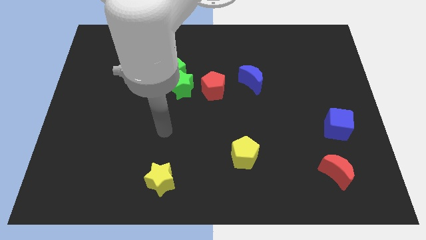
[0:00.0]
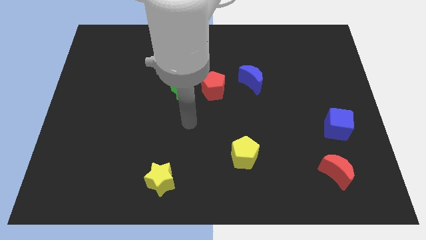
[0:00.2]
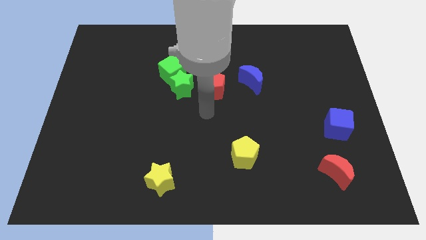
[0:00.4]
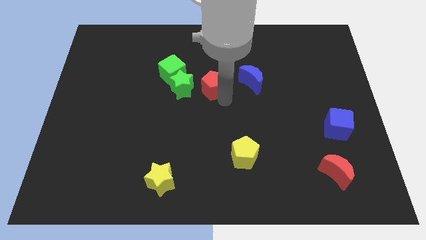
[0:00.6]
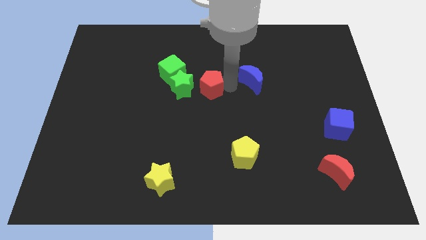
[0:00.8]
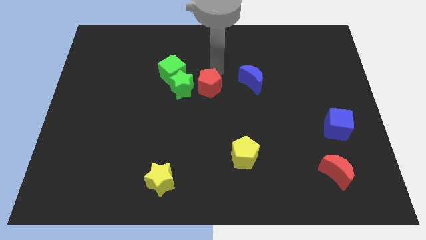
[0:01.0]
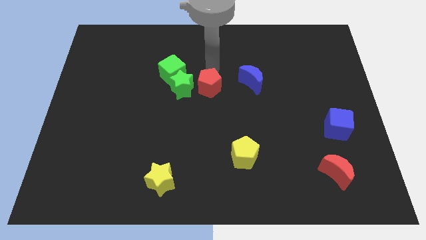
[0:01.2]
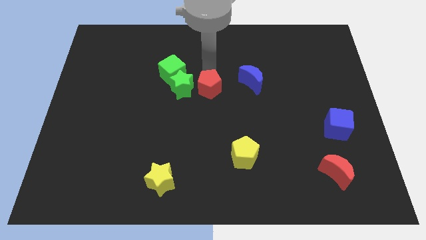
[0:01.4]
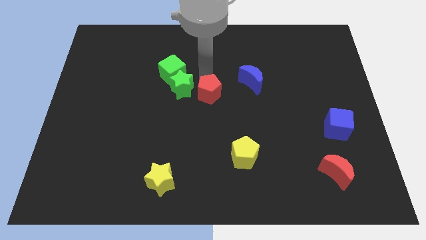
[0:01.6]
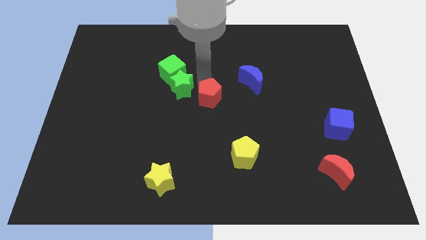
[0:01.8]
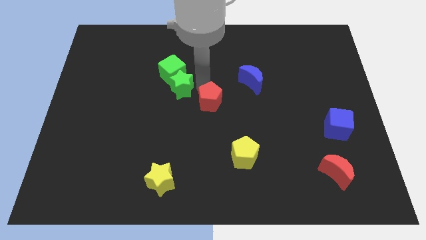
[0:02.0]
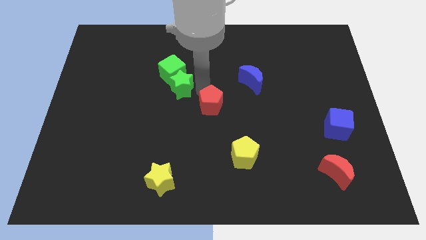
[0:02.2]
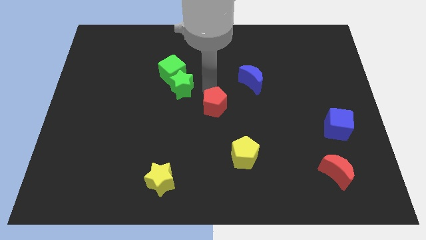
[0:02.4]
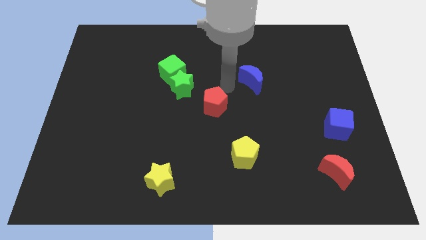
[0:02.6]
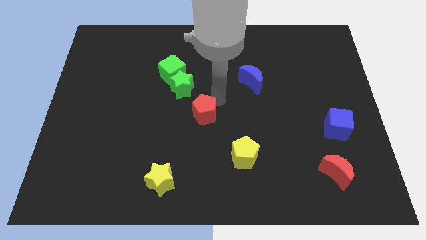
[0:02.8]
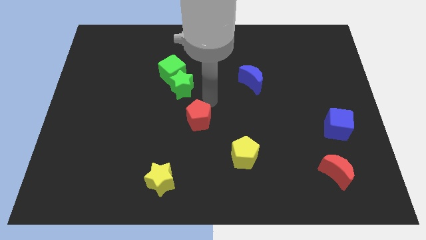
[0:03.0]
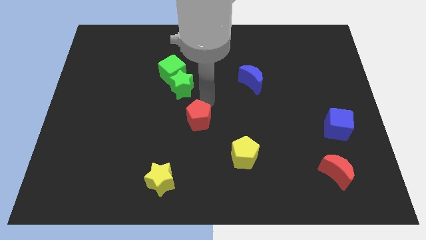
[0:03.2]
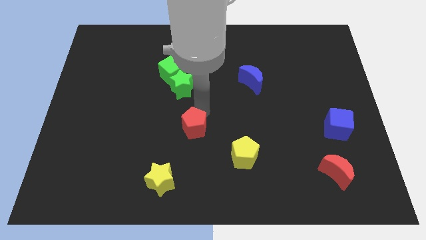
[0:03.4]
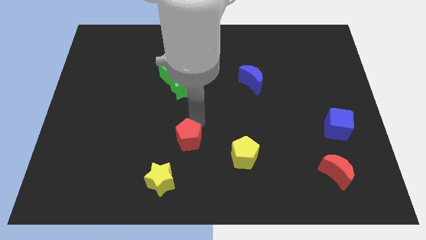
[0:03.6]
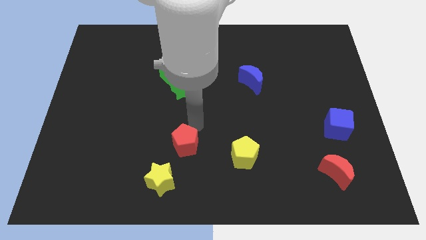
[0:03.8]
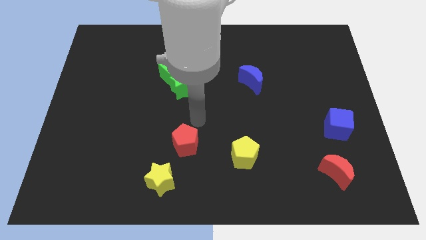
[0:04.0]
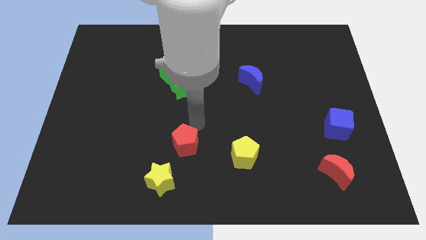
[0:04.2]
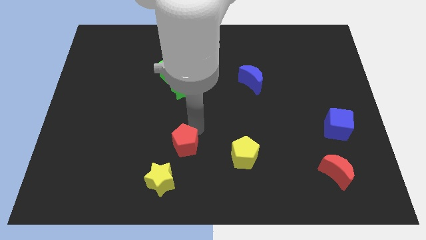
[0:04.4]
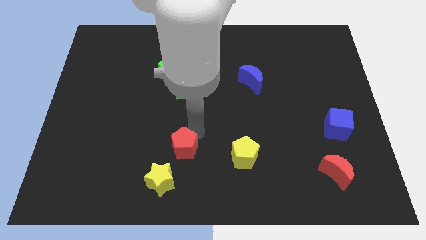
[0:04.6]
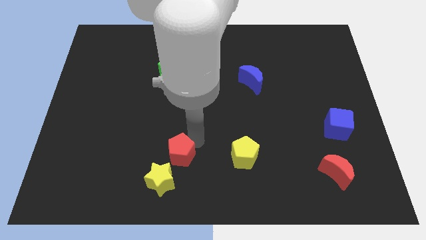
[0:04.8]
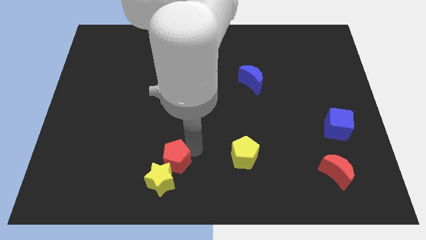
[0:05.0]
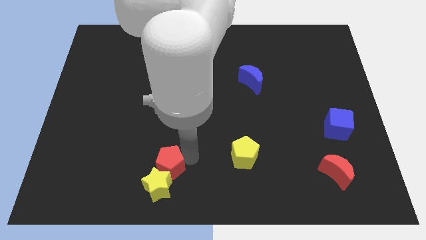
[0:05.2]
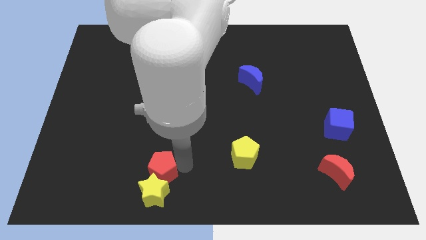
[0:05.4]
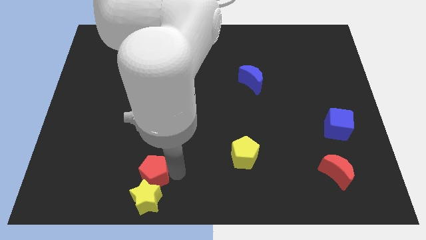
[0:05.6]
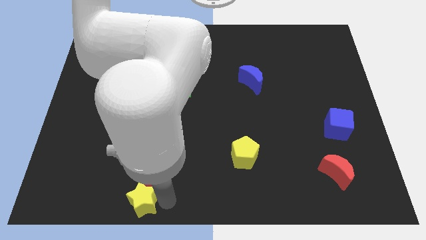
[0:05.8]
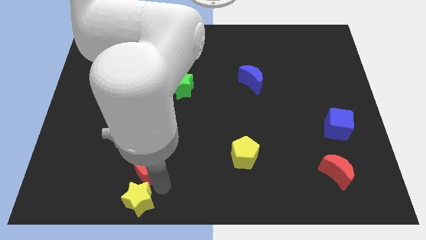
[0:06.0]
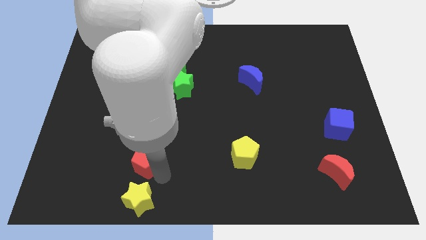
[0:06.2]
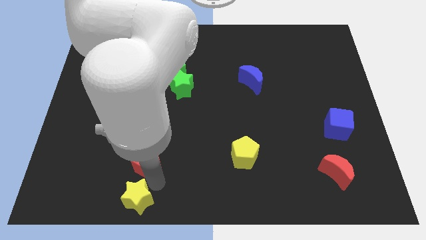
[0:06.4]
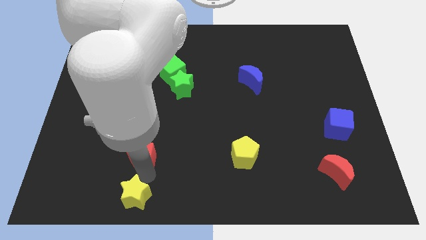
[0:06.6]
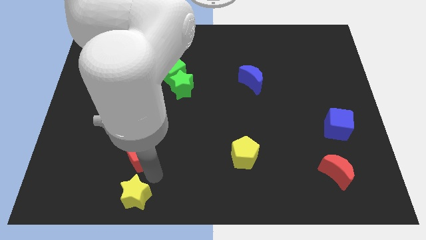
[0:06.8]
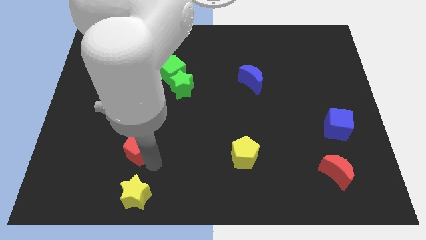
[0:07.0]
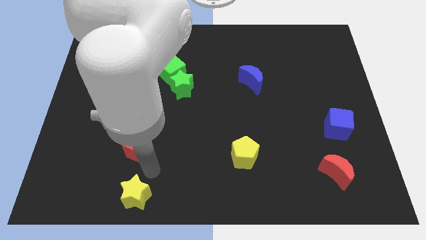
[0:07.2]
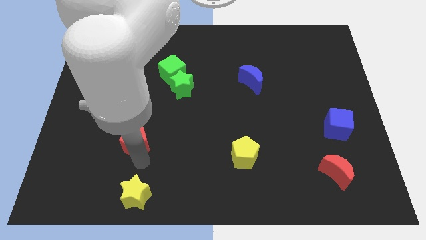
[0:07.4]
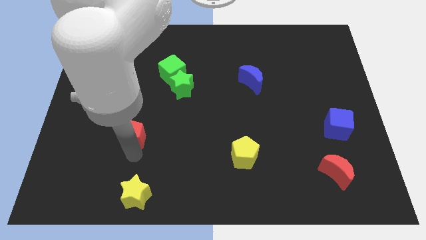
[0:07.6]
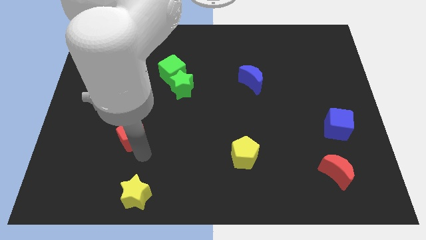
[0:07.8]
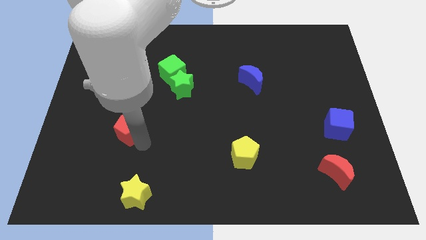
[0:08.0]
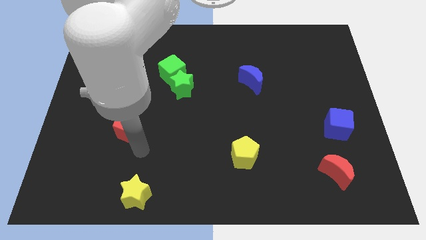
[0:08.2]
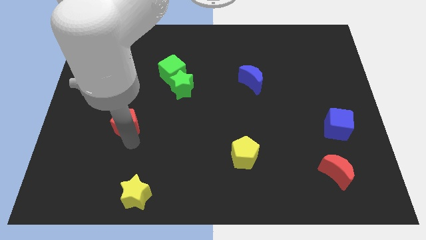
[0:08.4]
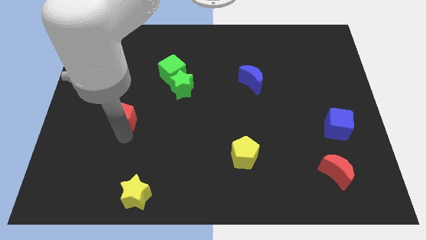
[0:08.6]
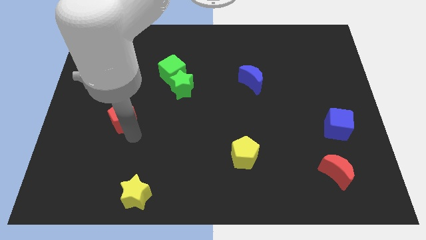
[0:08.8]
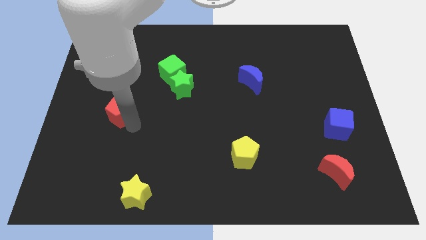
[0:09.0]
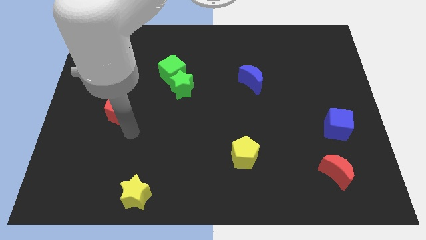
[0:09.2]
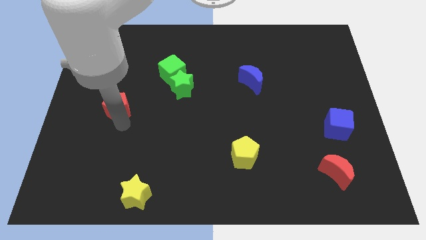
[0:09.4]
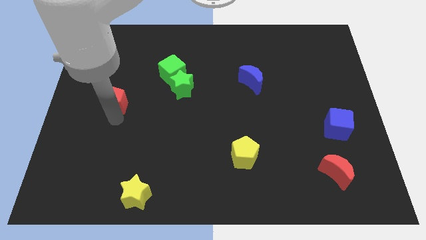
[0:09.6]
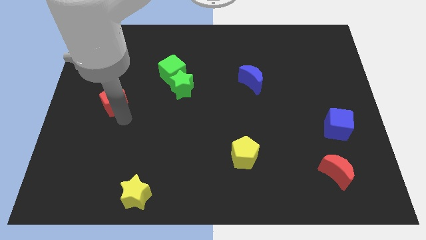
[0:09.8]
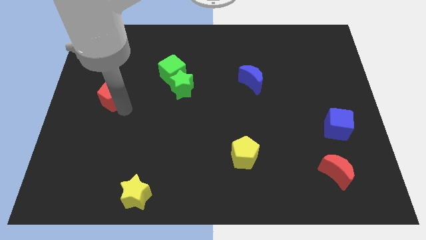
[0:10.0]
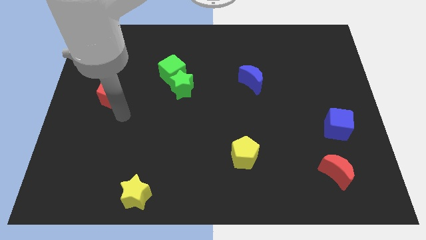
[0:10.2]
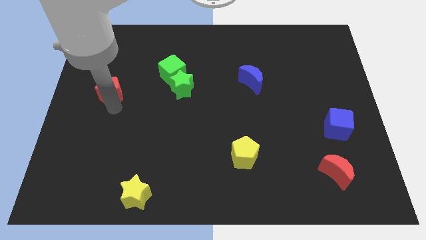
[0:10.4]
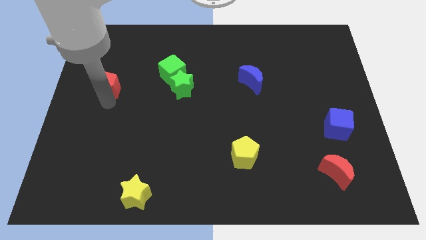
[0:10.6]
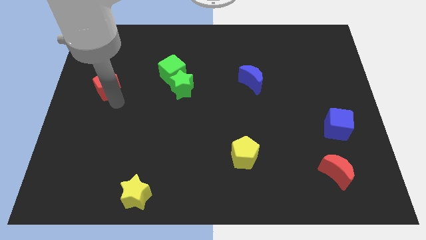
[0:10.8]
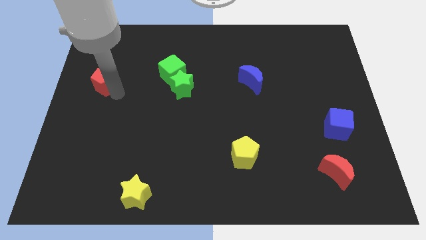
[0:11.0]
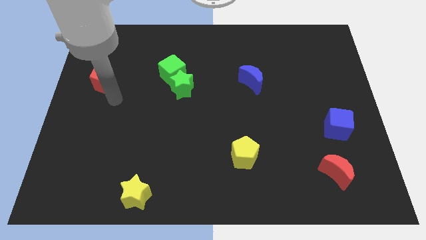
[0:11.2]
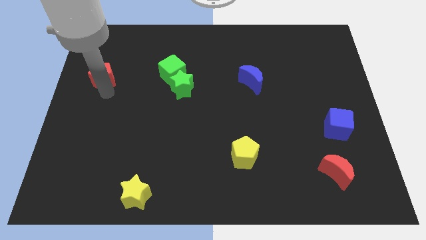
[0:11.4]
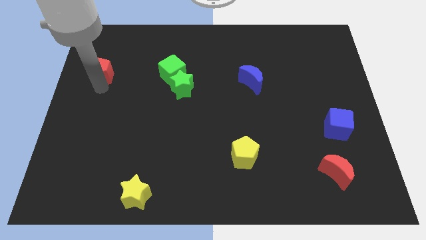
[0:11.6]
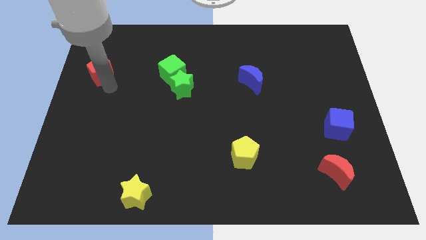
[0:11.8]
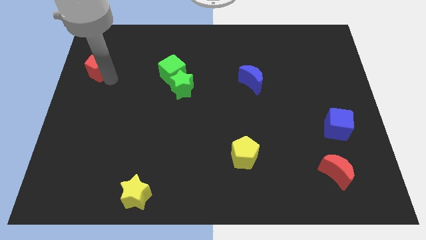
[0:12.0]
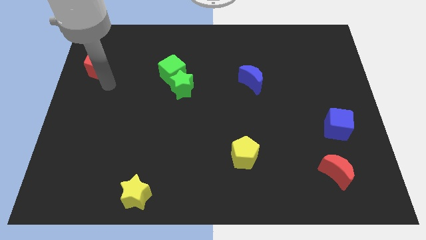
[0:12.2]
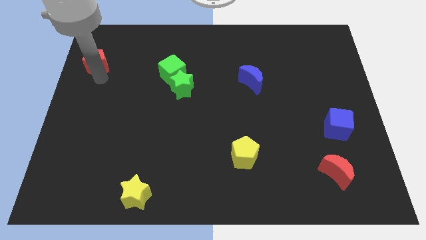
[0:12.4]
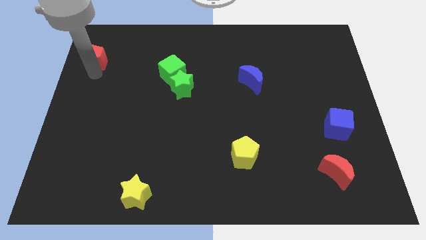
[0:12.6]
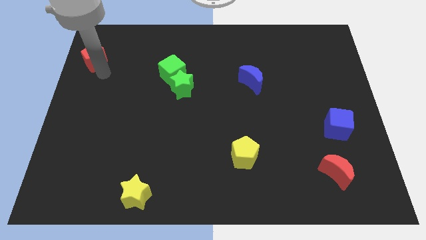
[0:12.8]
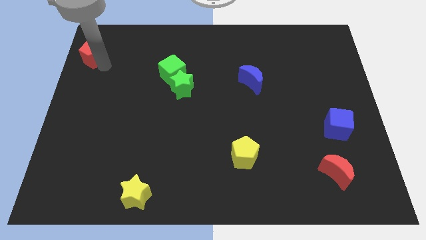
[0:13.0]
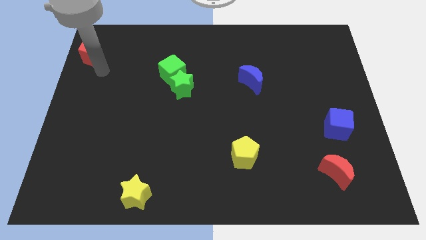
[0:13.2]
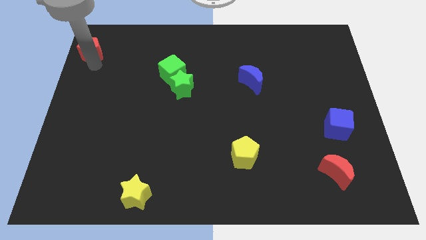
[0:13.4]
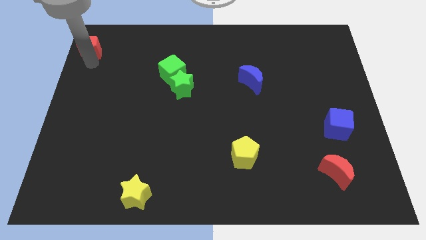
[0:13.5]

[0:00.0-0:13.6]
put the red pentagon to the top left of the board

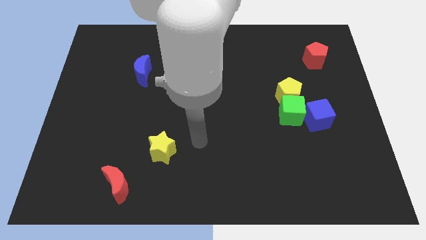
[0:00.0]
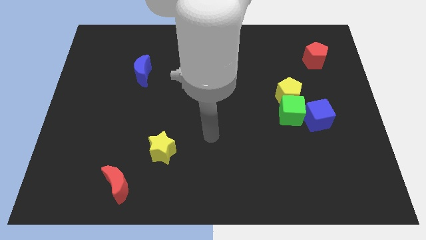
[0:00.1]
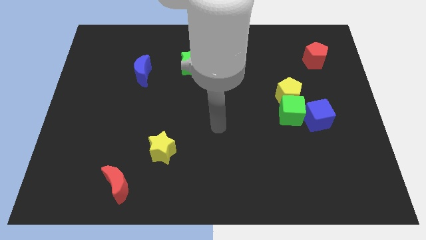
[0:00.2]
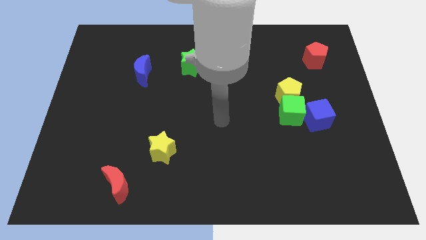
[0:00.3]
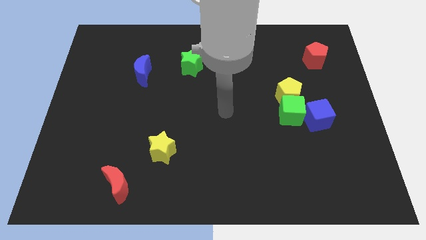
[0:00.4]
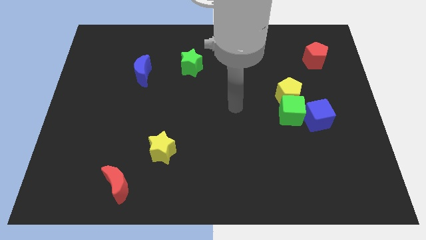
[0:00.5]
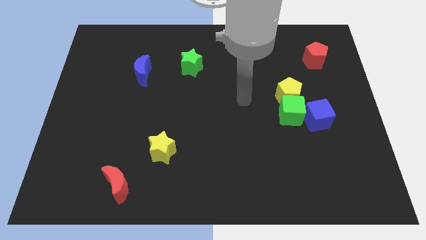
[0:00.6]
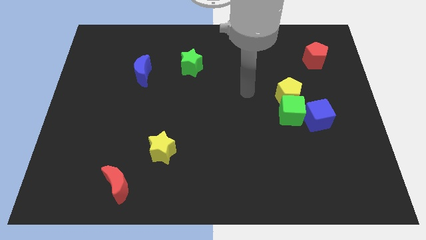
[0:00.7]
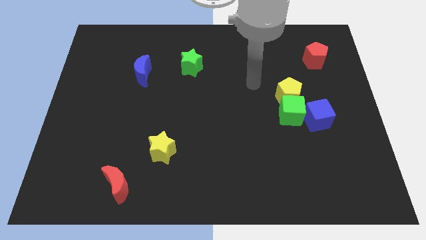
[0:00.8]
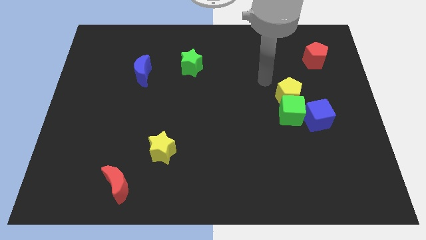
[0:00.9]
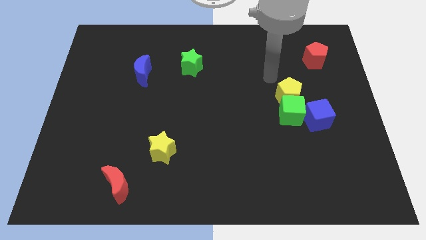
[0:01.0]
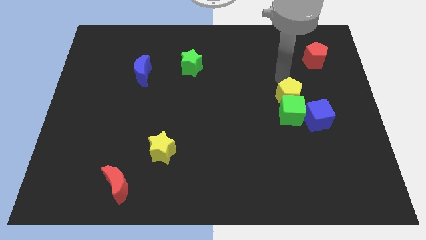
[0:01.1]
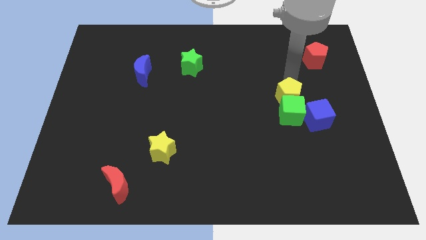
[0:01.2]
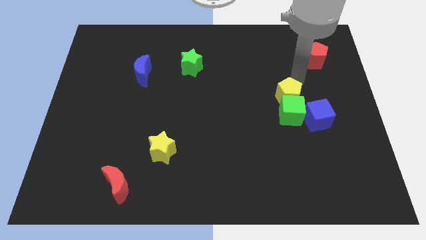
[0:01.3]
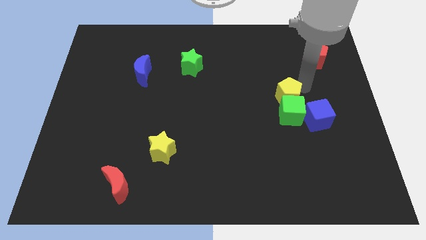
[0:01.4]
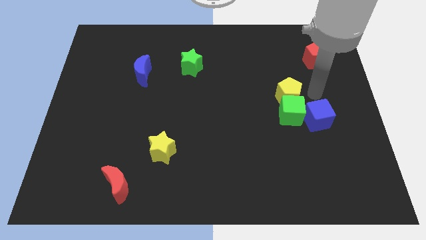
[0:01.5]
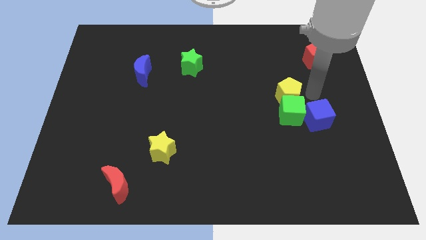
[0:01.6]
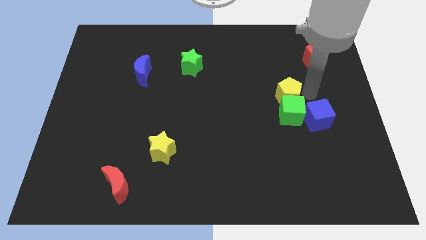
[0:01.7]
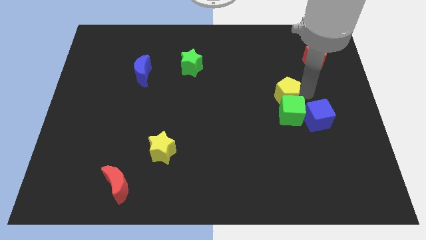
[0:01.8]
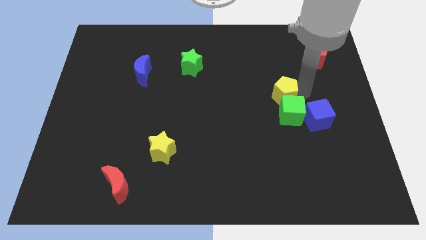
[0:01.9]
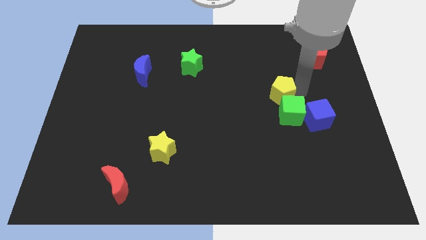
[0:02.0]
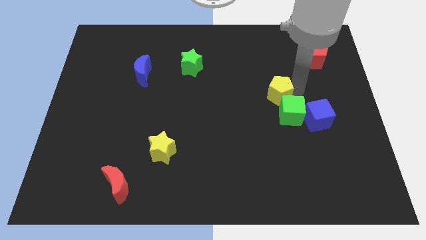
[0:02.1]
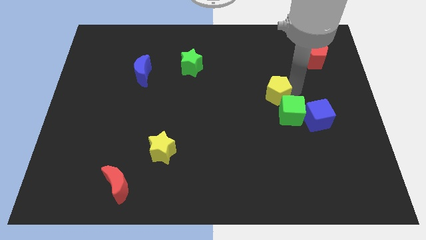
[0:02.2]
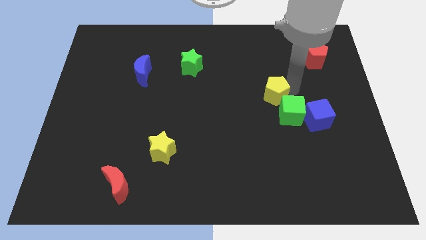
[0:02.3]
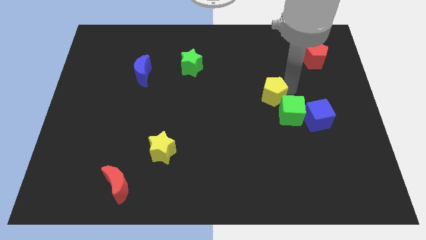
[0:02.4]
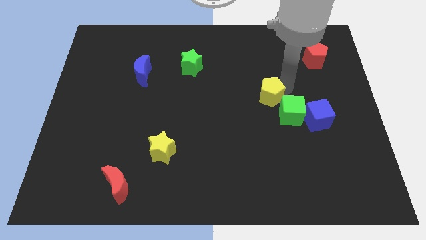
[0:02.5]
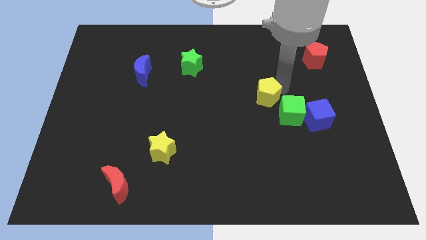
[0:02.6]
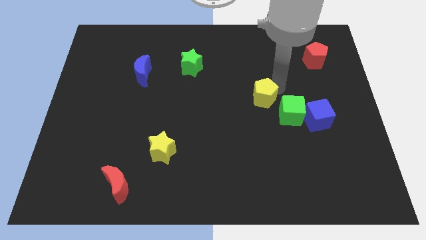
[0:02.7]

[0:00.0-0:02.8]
slide the yellow pentagon to the middle of the board
